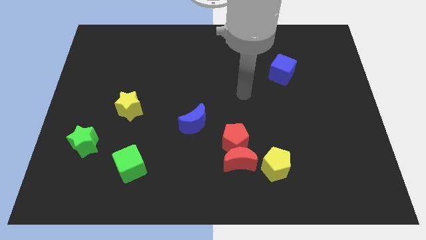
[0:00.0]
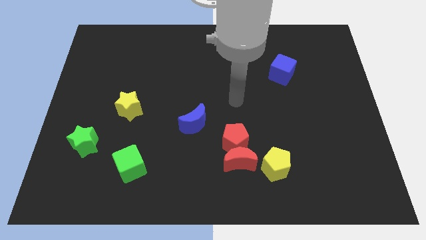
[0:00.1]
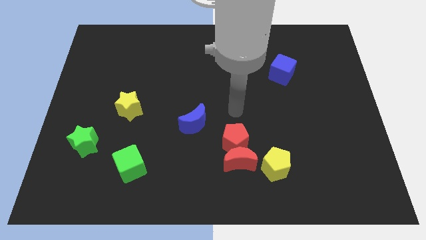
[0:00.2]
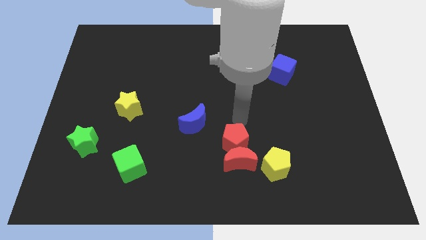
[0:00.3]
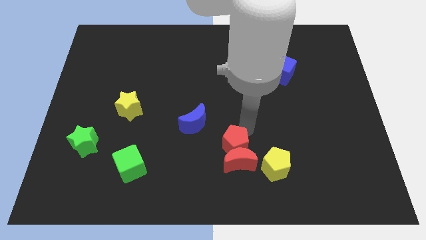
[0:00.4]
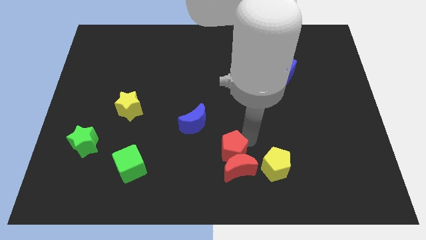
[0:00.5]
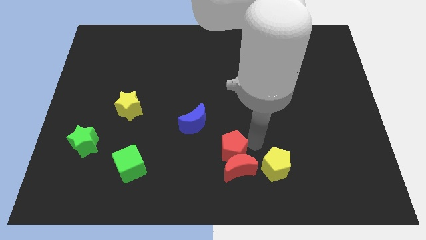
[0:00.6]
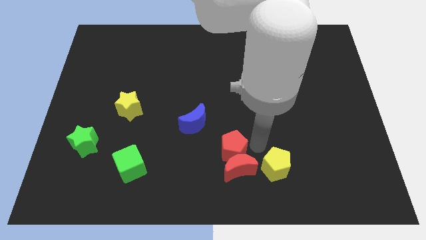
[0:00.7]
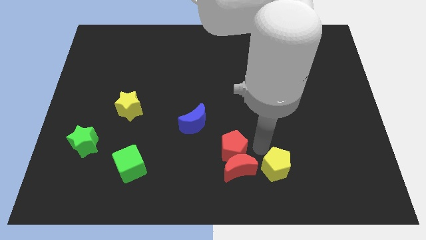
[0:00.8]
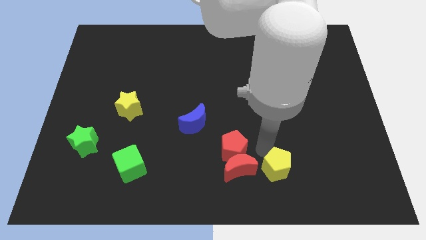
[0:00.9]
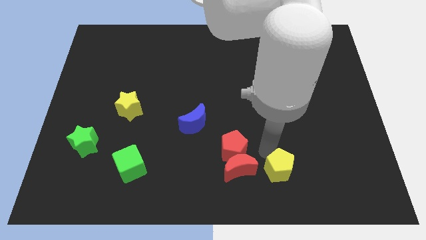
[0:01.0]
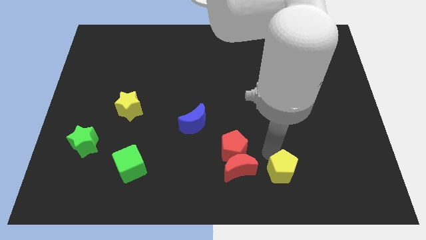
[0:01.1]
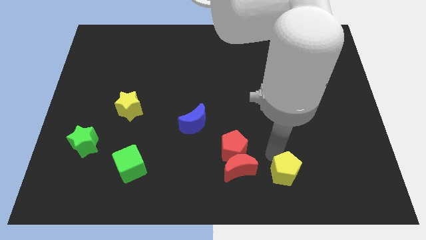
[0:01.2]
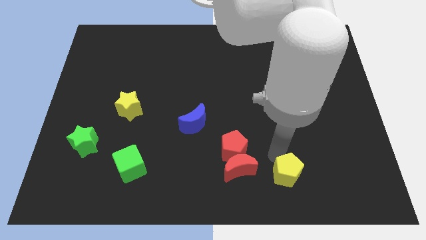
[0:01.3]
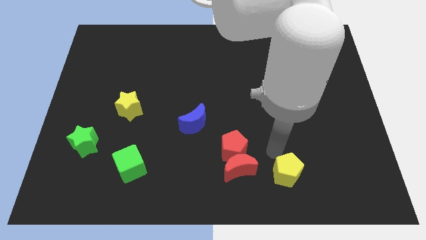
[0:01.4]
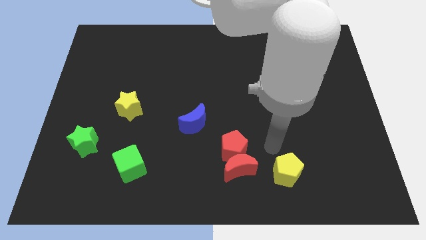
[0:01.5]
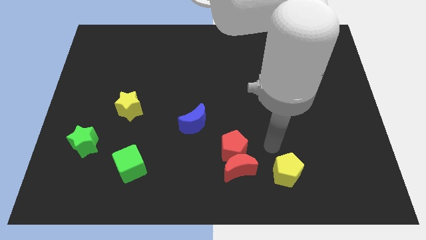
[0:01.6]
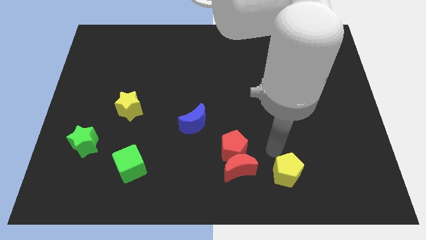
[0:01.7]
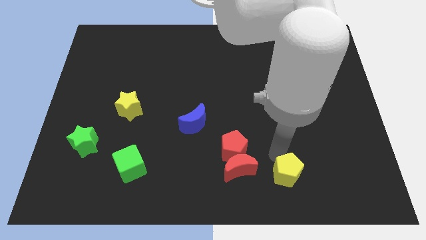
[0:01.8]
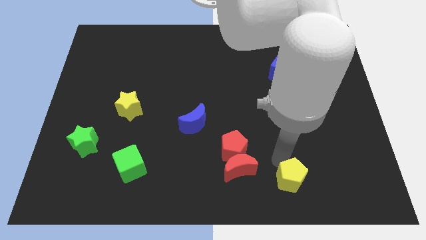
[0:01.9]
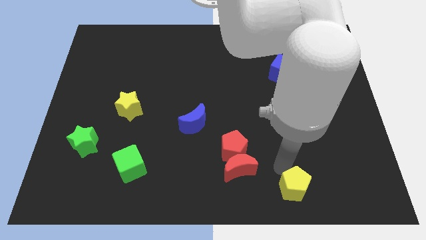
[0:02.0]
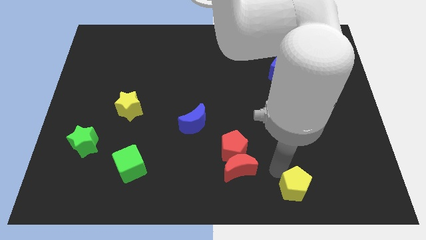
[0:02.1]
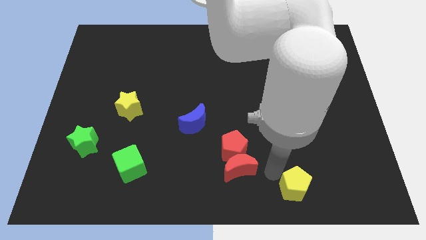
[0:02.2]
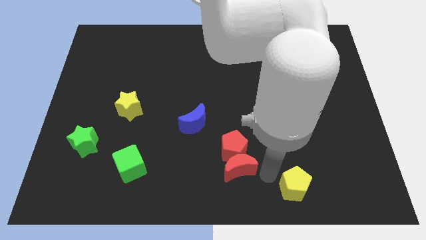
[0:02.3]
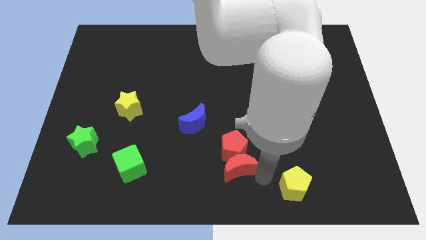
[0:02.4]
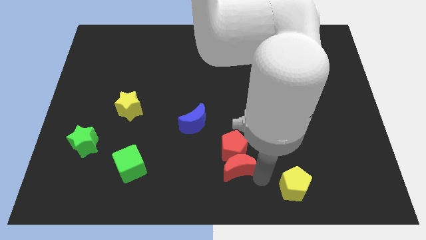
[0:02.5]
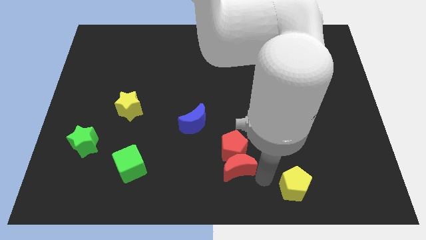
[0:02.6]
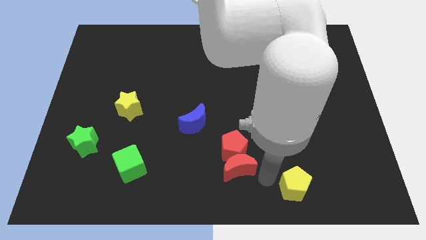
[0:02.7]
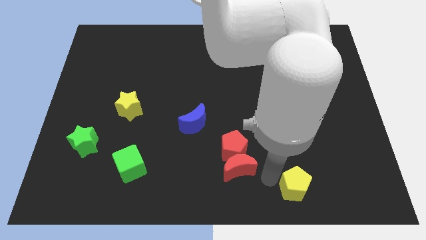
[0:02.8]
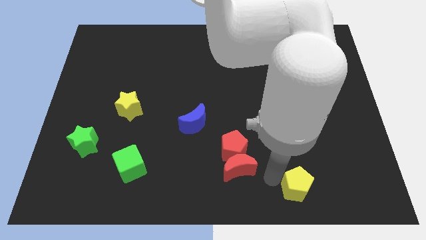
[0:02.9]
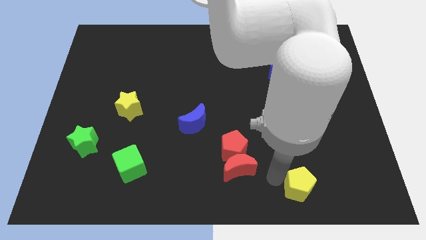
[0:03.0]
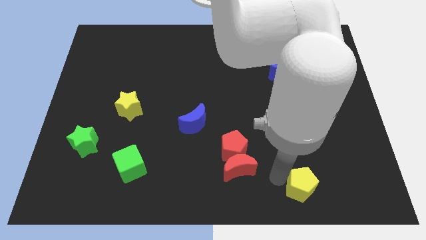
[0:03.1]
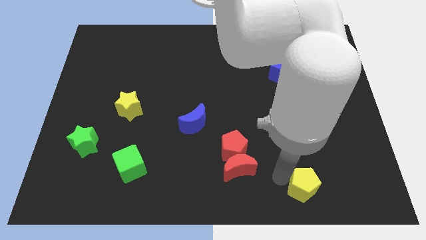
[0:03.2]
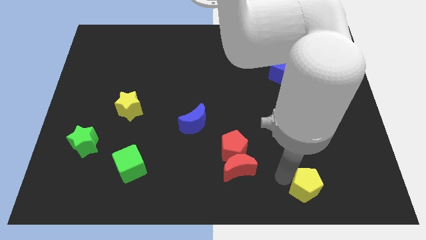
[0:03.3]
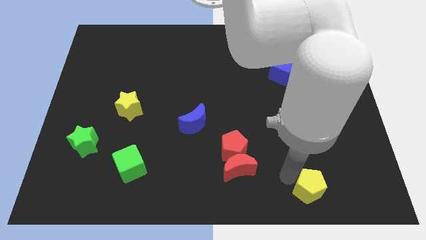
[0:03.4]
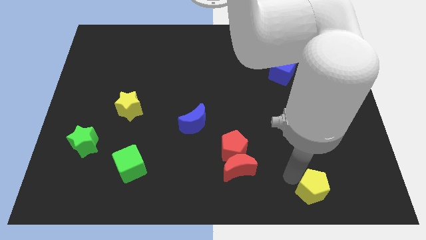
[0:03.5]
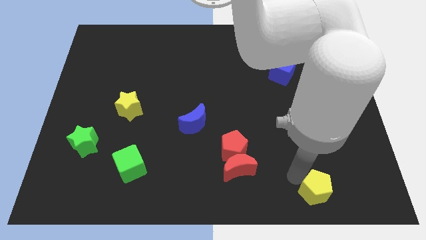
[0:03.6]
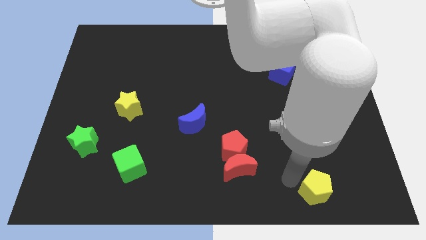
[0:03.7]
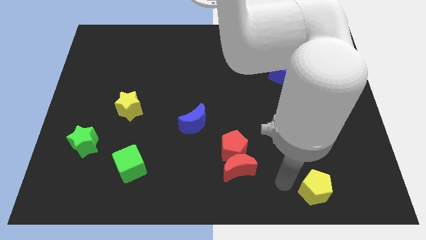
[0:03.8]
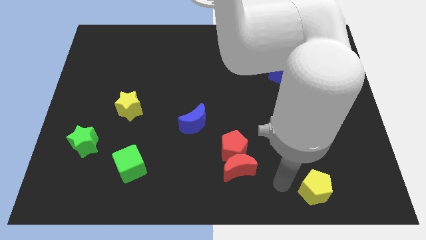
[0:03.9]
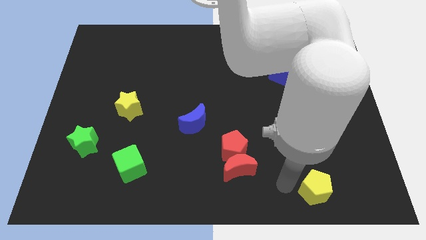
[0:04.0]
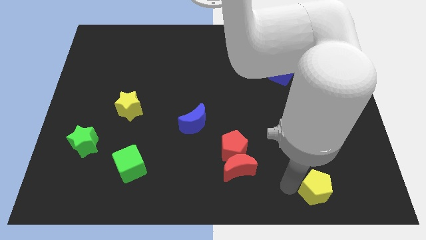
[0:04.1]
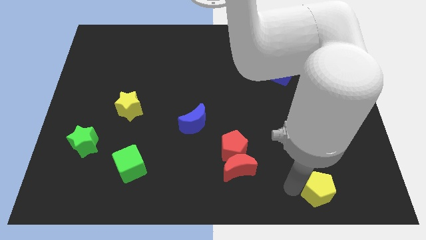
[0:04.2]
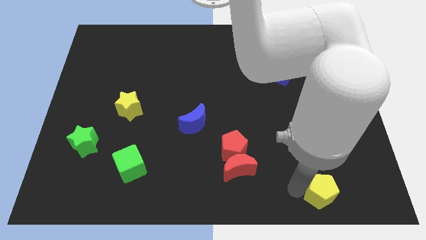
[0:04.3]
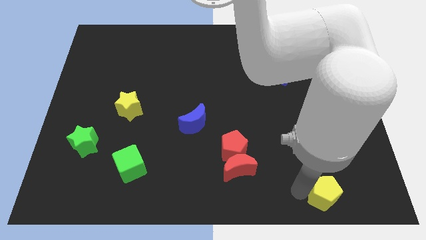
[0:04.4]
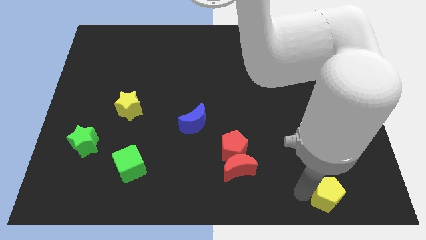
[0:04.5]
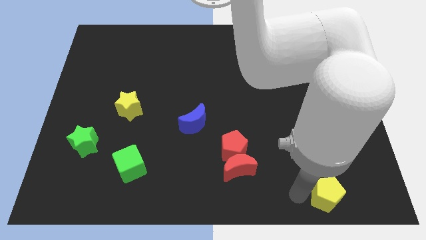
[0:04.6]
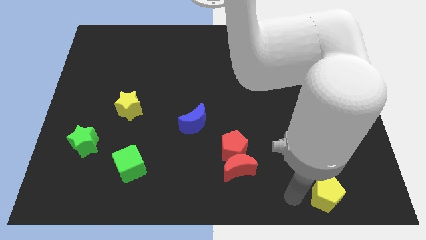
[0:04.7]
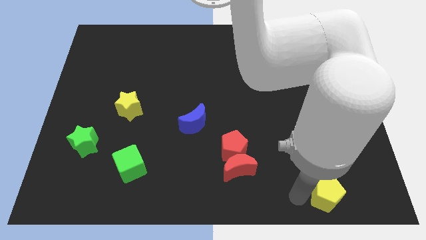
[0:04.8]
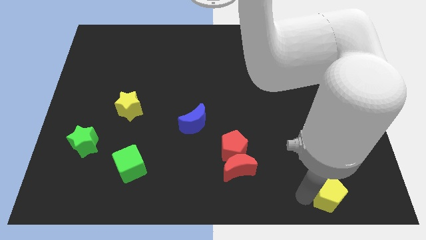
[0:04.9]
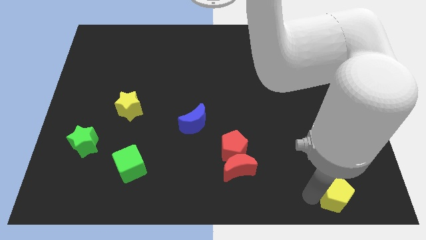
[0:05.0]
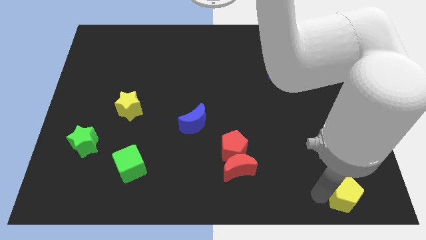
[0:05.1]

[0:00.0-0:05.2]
move the yellow pentagon to the lower right corner

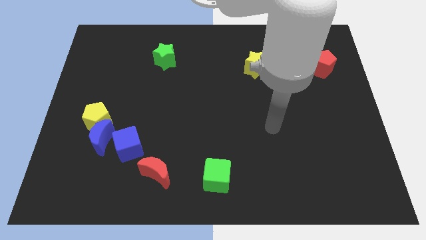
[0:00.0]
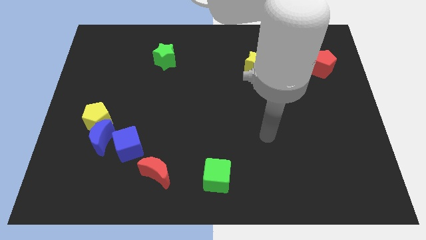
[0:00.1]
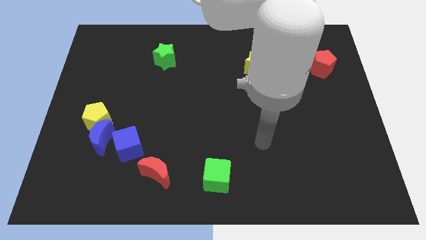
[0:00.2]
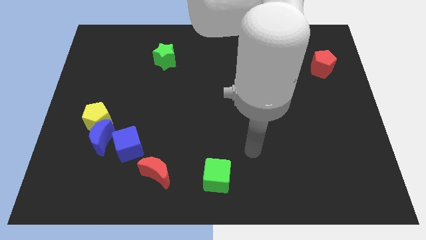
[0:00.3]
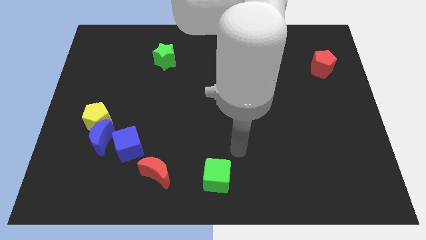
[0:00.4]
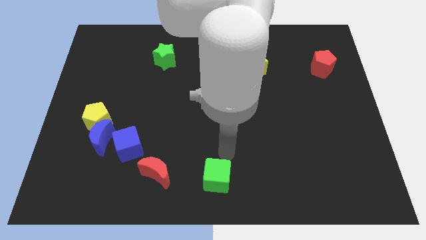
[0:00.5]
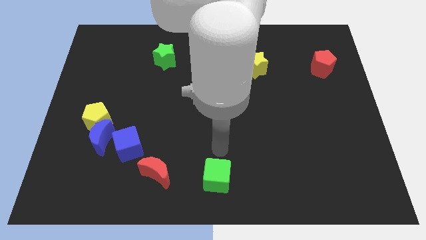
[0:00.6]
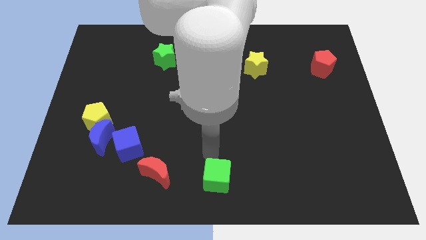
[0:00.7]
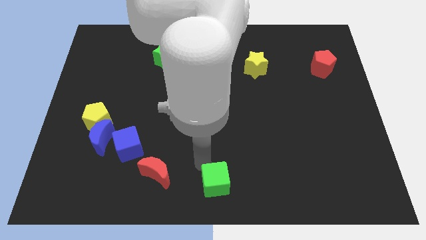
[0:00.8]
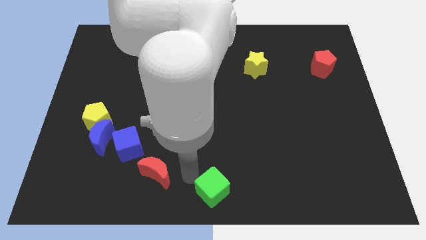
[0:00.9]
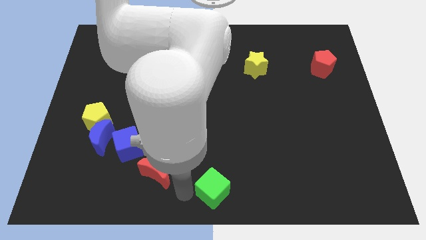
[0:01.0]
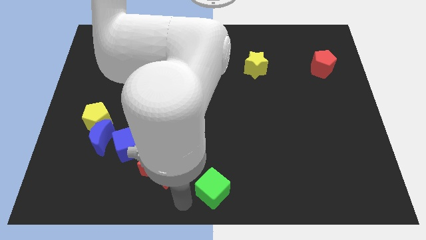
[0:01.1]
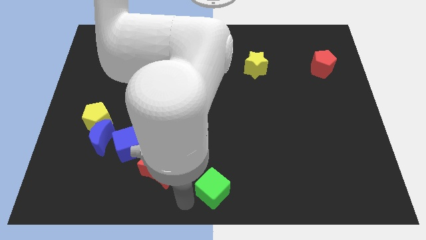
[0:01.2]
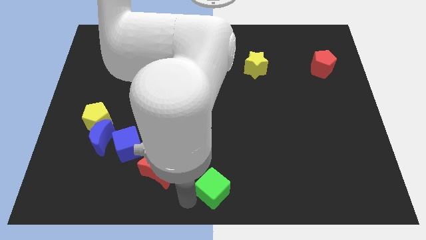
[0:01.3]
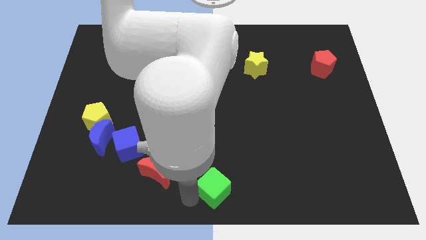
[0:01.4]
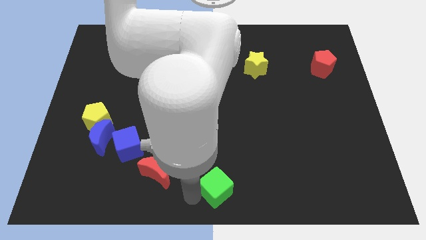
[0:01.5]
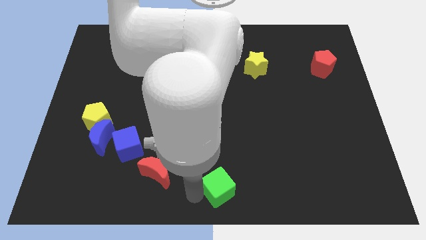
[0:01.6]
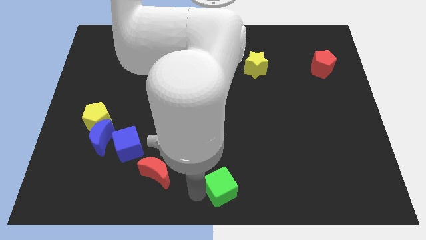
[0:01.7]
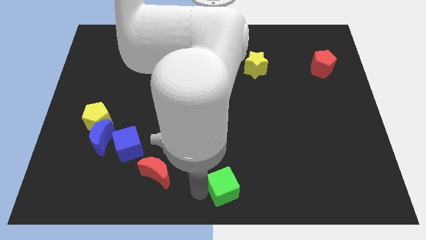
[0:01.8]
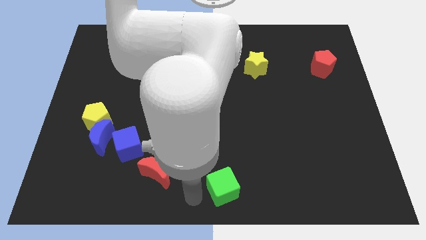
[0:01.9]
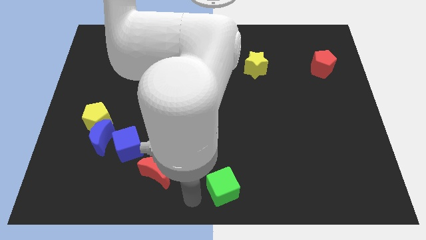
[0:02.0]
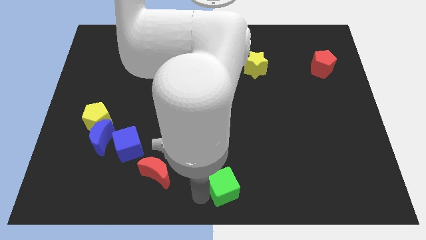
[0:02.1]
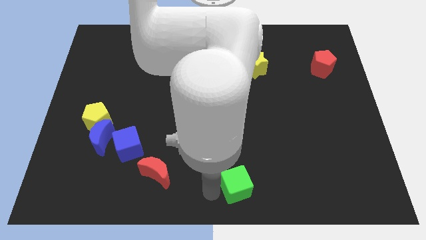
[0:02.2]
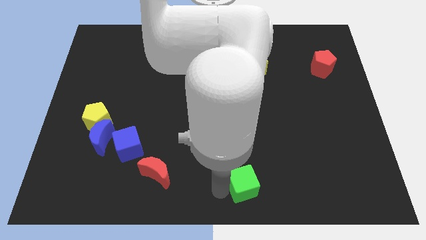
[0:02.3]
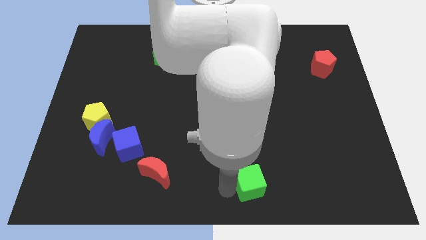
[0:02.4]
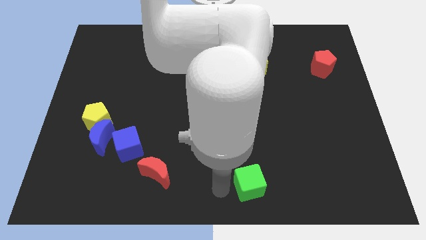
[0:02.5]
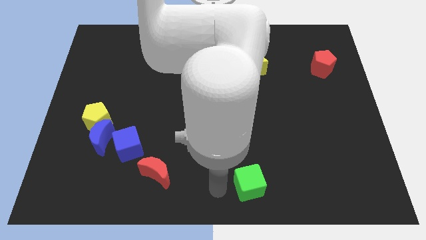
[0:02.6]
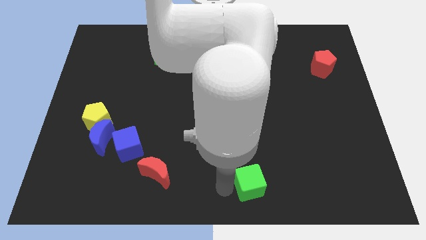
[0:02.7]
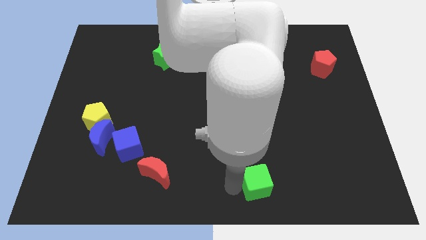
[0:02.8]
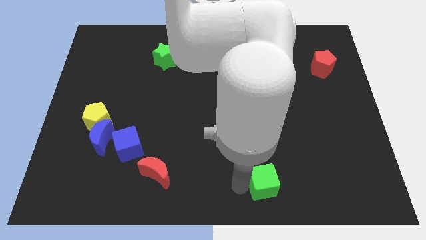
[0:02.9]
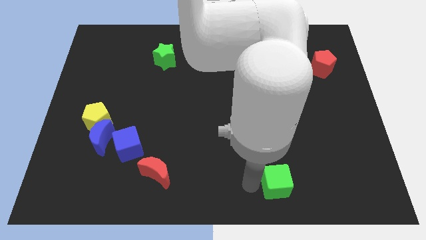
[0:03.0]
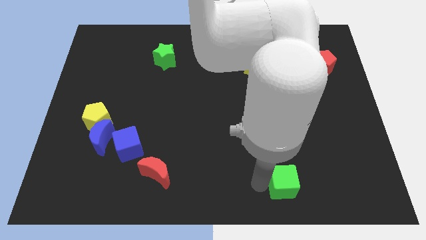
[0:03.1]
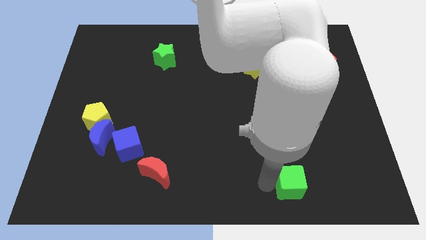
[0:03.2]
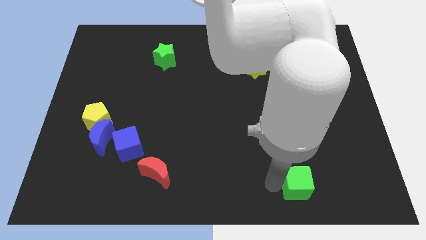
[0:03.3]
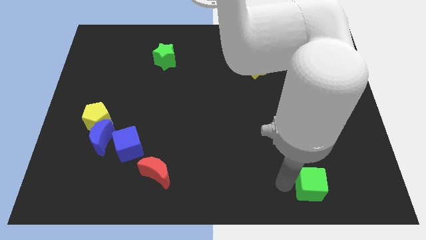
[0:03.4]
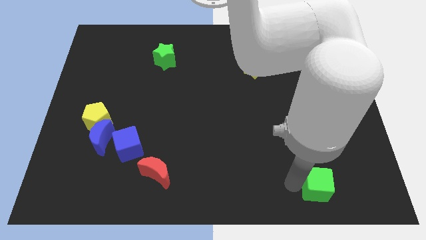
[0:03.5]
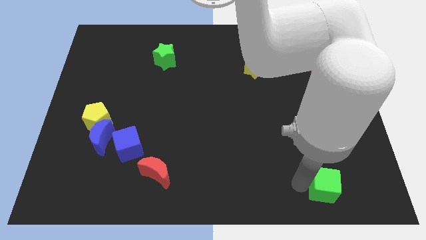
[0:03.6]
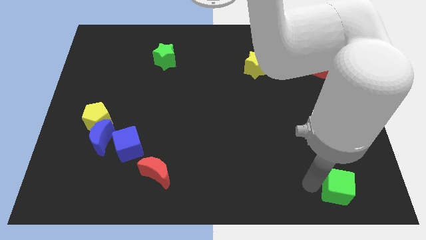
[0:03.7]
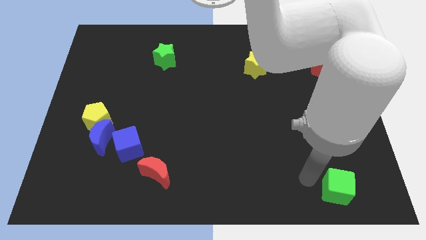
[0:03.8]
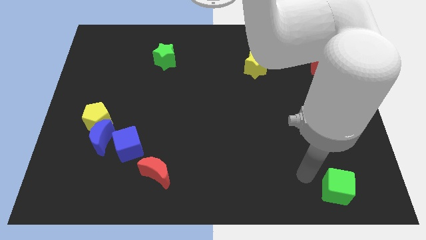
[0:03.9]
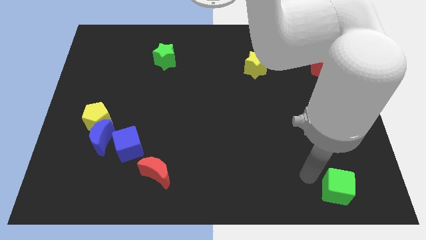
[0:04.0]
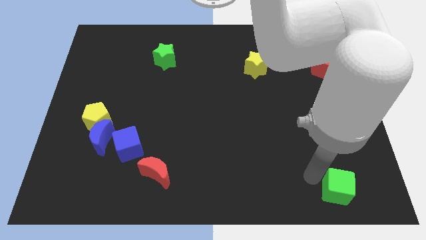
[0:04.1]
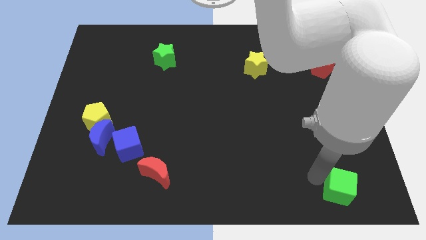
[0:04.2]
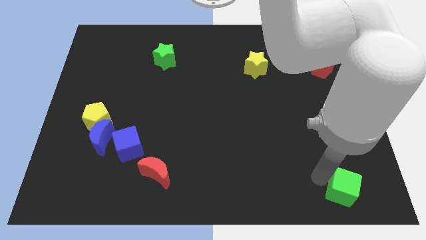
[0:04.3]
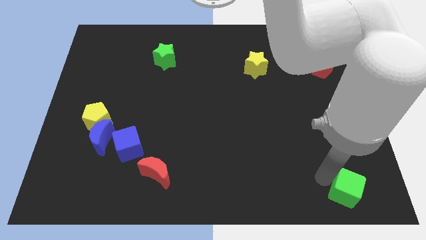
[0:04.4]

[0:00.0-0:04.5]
push the green cube to the lower right corner
